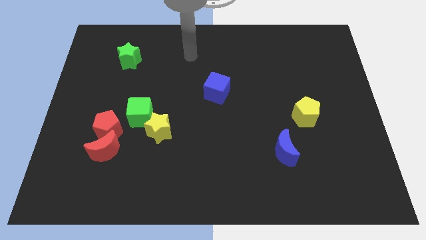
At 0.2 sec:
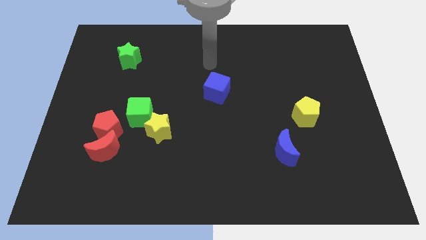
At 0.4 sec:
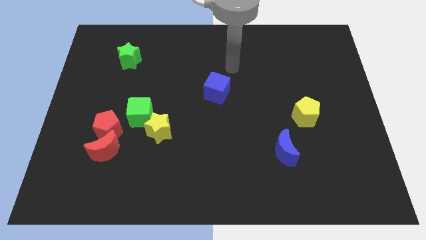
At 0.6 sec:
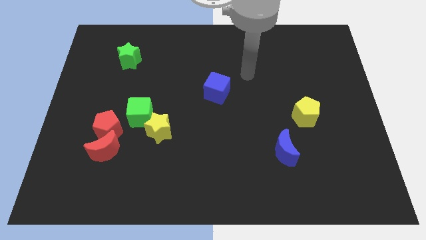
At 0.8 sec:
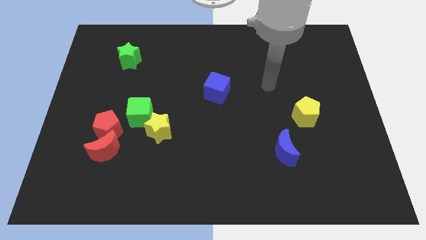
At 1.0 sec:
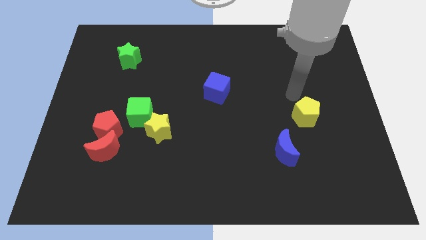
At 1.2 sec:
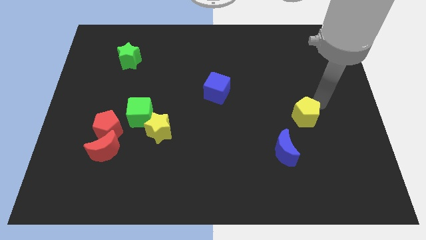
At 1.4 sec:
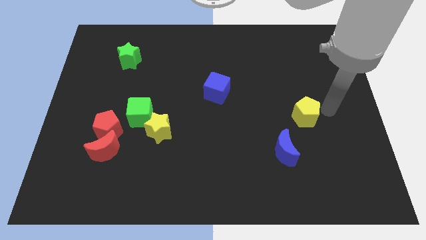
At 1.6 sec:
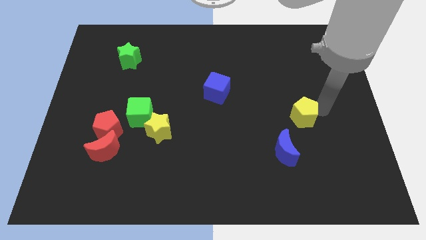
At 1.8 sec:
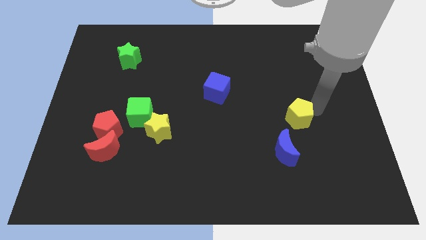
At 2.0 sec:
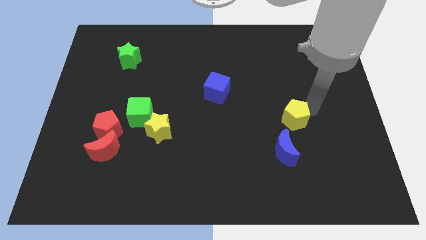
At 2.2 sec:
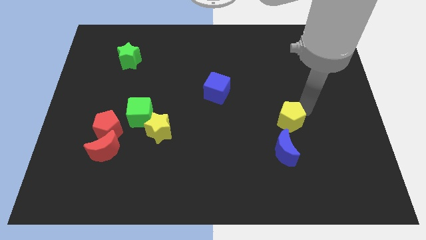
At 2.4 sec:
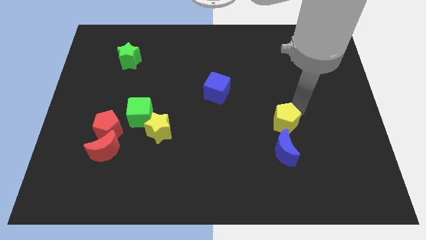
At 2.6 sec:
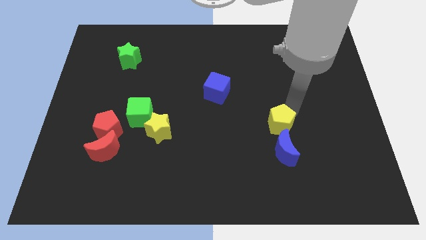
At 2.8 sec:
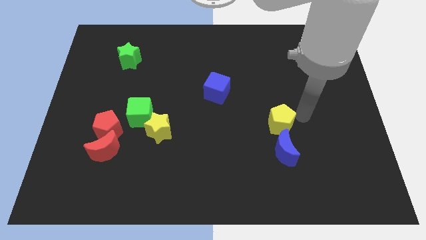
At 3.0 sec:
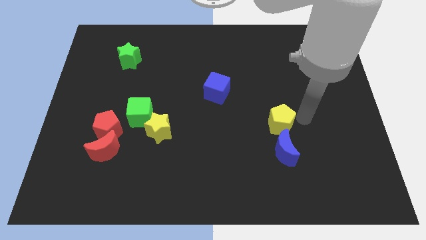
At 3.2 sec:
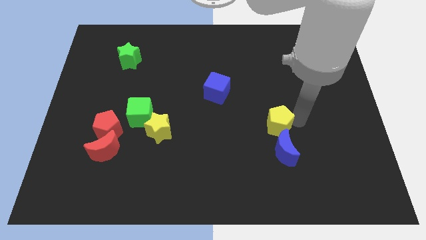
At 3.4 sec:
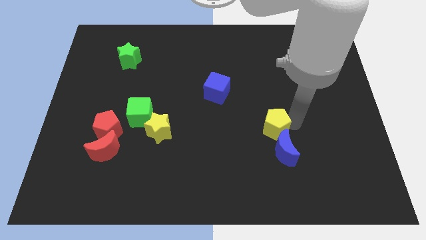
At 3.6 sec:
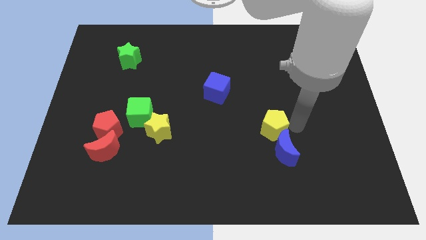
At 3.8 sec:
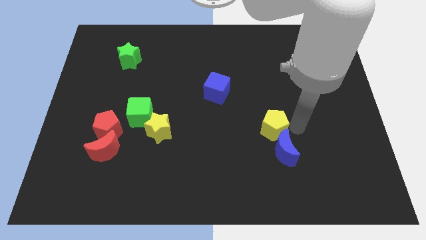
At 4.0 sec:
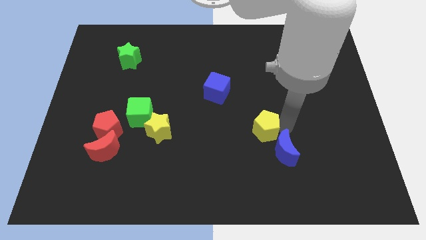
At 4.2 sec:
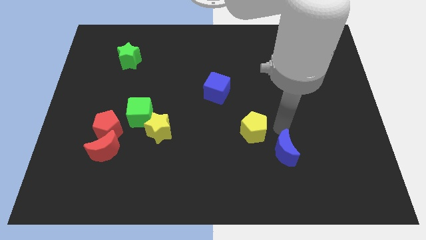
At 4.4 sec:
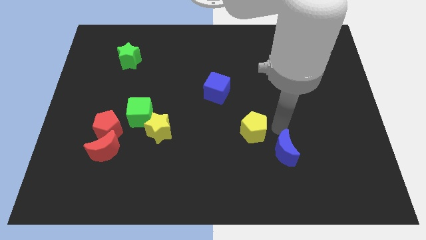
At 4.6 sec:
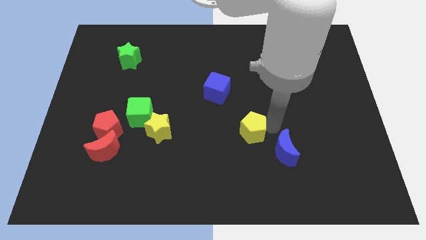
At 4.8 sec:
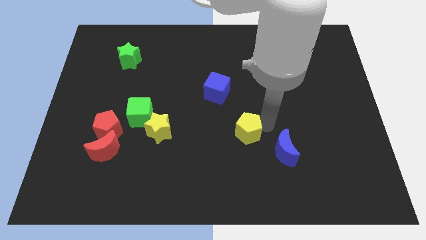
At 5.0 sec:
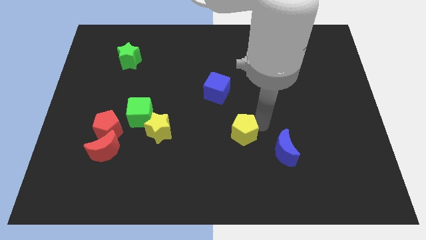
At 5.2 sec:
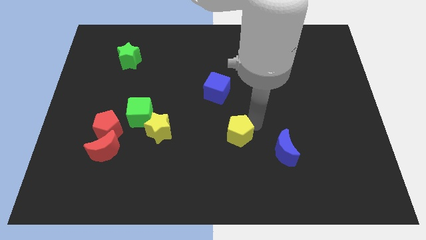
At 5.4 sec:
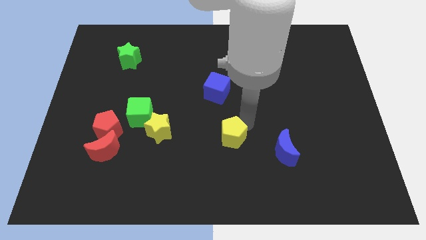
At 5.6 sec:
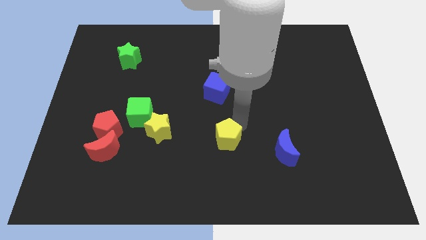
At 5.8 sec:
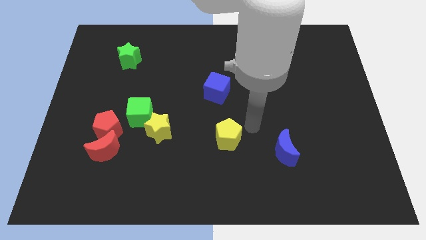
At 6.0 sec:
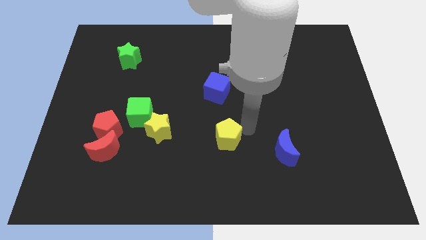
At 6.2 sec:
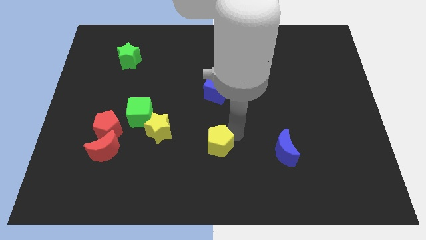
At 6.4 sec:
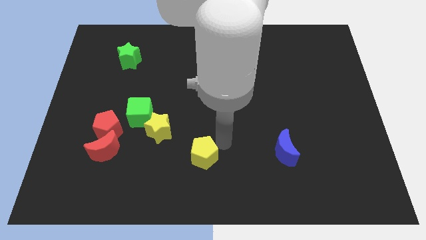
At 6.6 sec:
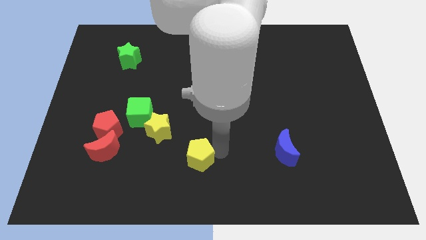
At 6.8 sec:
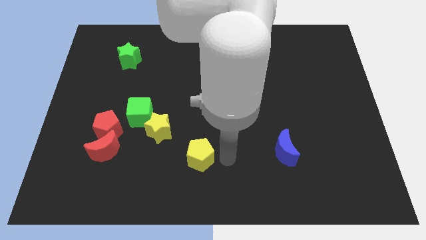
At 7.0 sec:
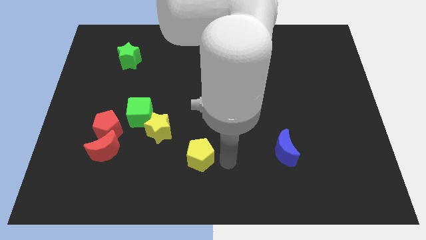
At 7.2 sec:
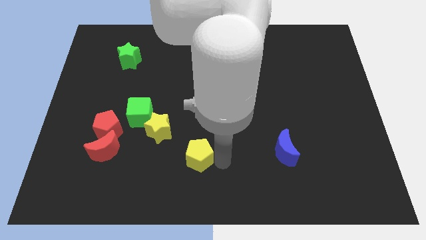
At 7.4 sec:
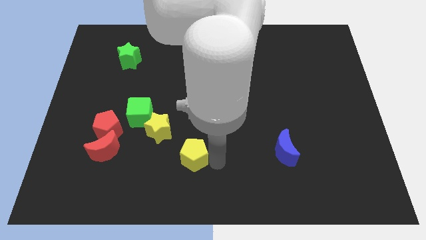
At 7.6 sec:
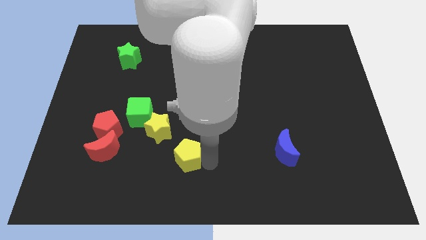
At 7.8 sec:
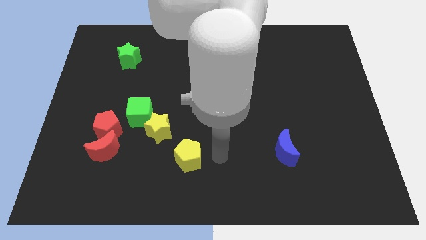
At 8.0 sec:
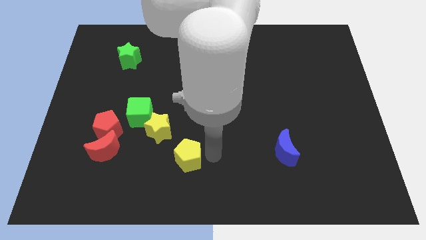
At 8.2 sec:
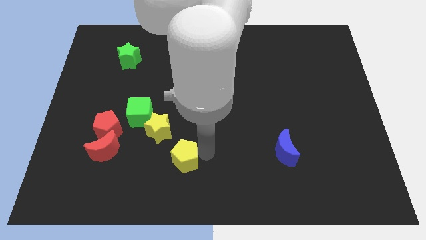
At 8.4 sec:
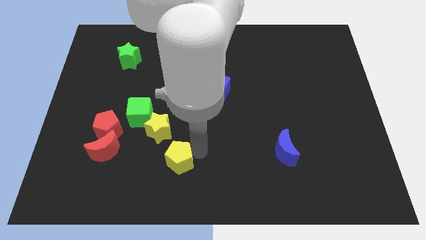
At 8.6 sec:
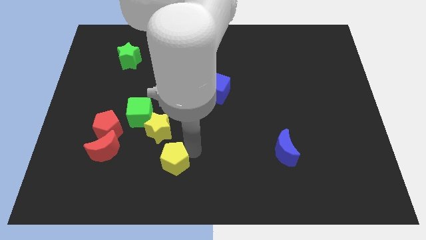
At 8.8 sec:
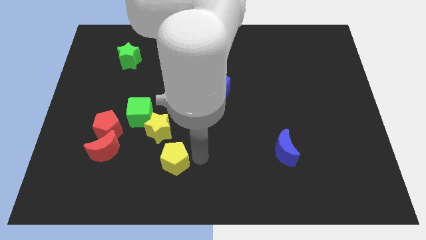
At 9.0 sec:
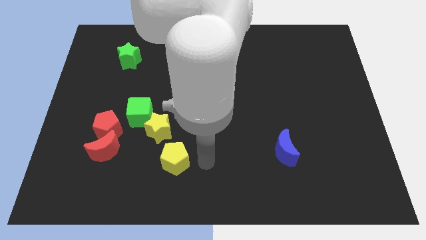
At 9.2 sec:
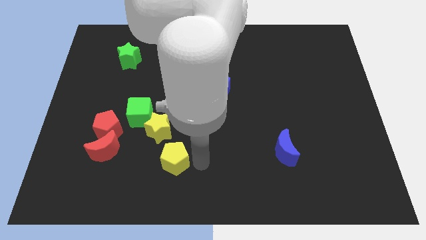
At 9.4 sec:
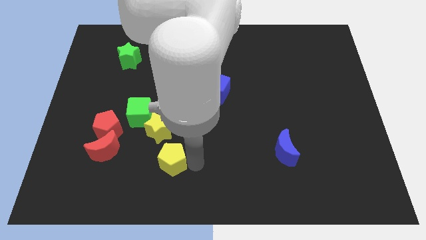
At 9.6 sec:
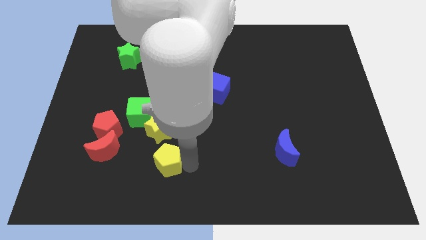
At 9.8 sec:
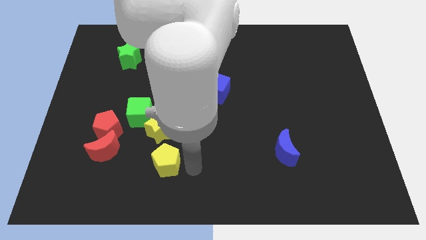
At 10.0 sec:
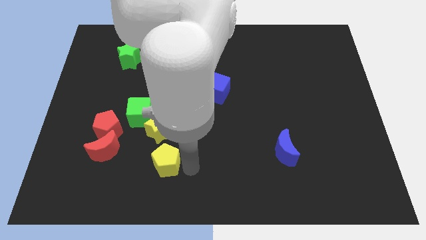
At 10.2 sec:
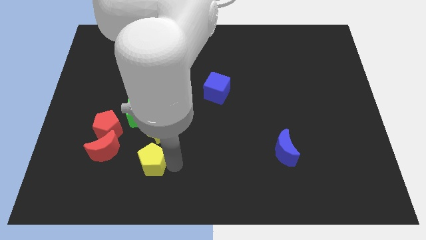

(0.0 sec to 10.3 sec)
move the yellow pentagon below the green cube

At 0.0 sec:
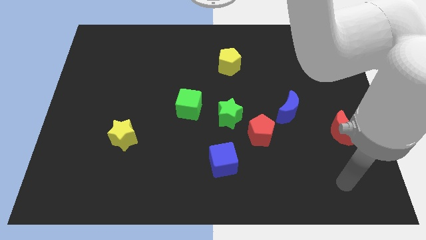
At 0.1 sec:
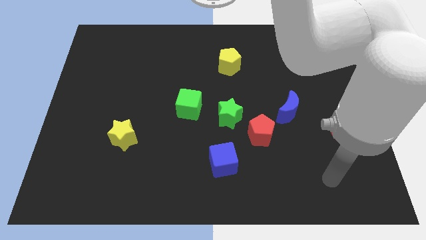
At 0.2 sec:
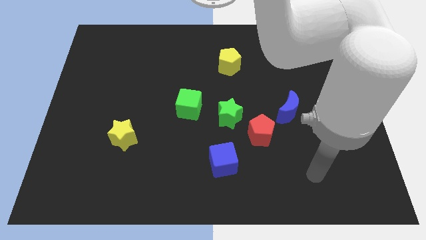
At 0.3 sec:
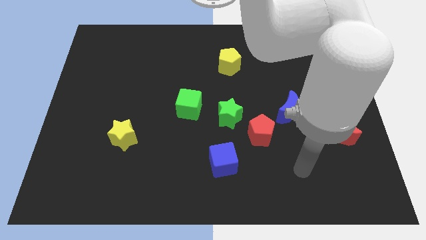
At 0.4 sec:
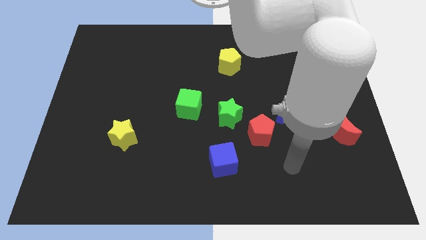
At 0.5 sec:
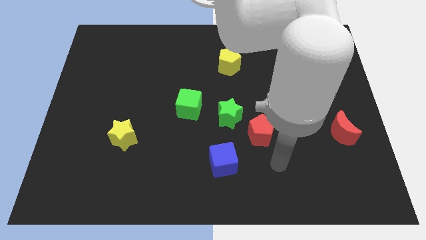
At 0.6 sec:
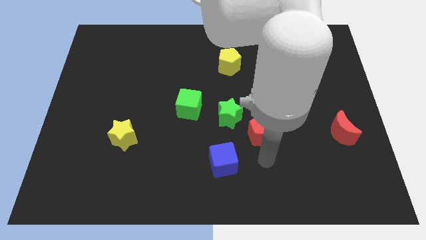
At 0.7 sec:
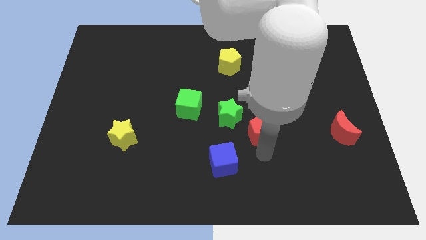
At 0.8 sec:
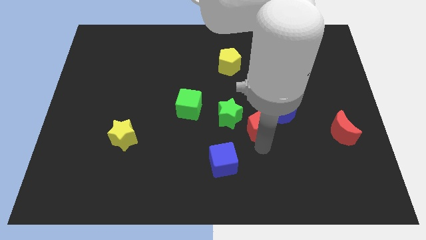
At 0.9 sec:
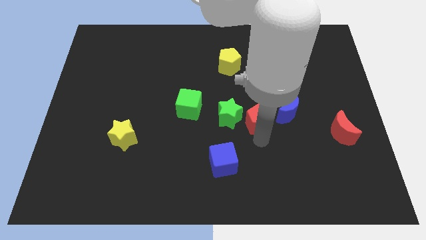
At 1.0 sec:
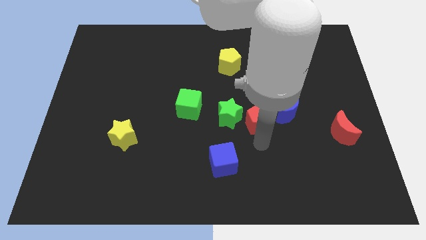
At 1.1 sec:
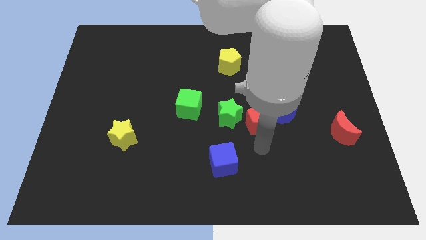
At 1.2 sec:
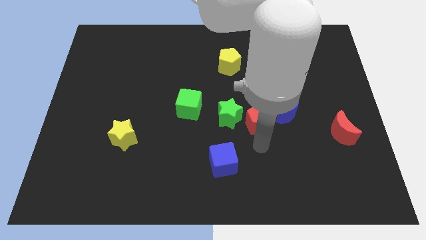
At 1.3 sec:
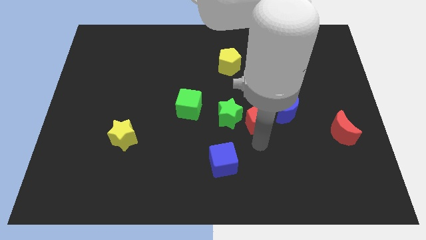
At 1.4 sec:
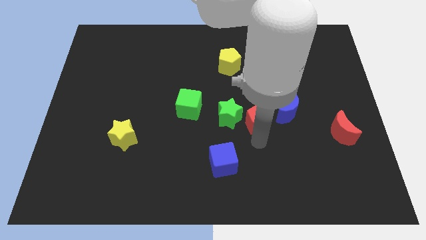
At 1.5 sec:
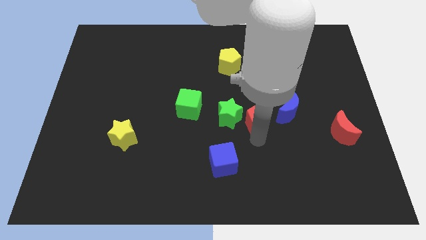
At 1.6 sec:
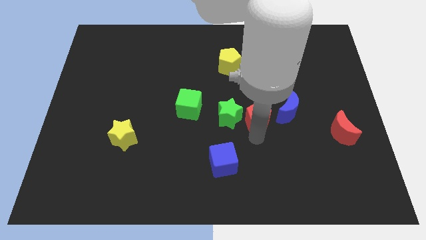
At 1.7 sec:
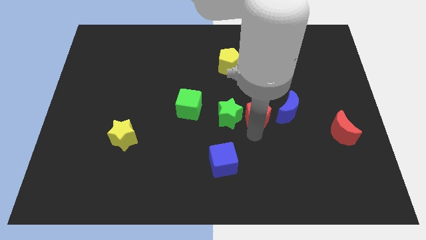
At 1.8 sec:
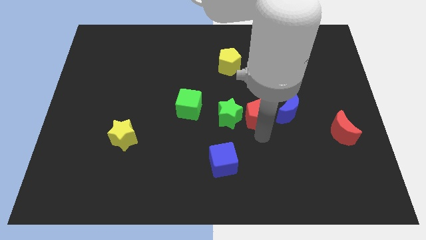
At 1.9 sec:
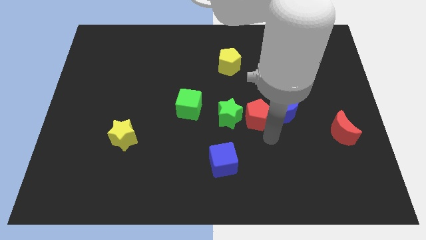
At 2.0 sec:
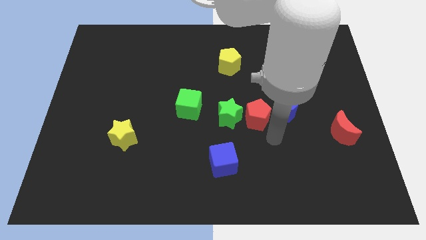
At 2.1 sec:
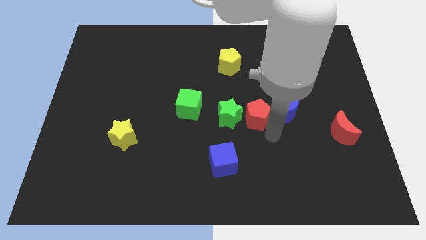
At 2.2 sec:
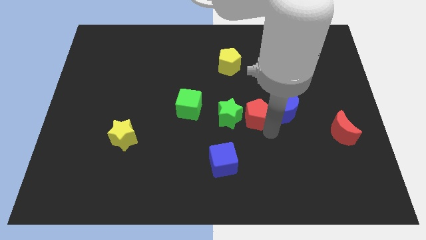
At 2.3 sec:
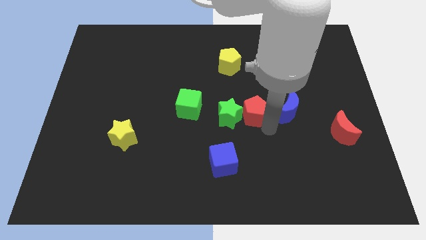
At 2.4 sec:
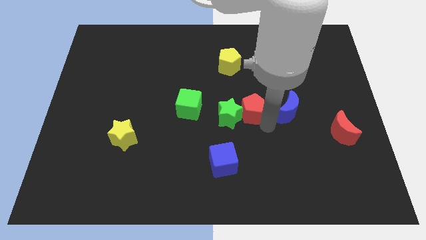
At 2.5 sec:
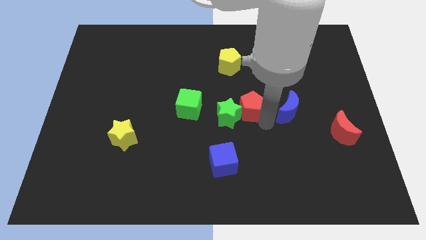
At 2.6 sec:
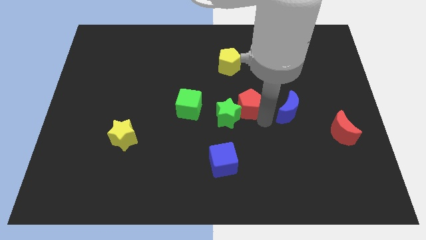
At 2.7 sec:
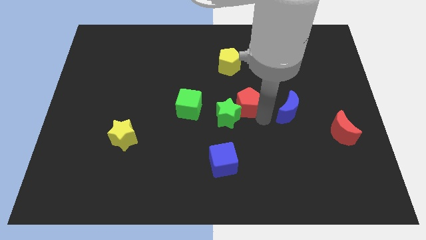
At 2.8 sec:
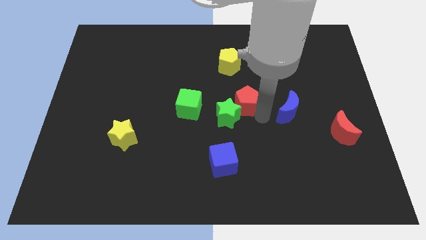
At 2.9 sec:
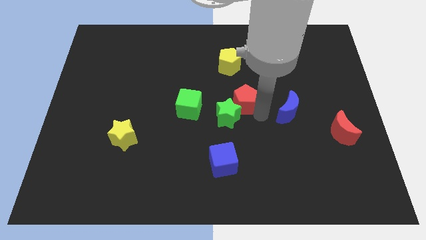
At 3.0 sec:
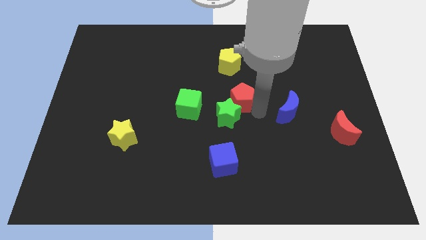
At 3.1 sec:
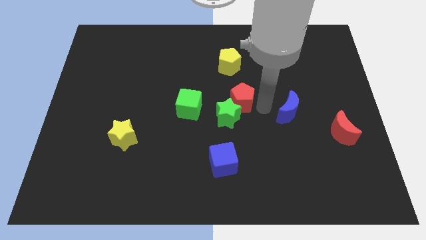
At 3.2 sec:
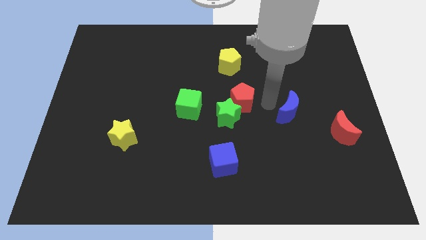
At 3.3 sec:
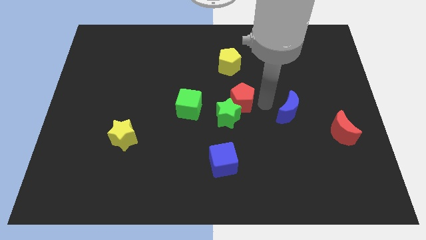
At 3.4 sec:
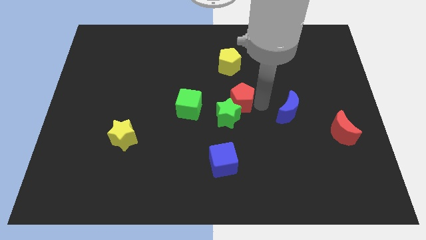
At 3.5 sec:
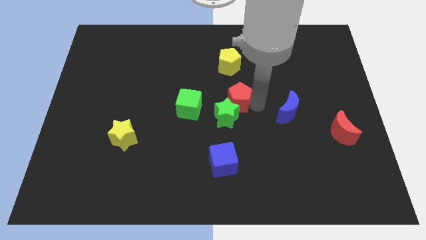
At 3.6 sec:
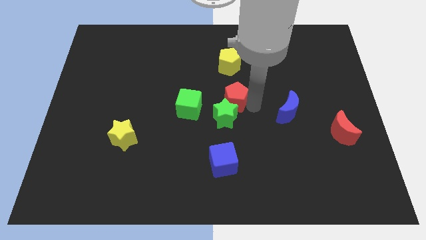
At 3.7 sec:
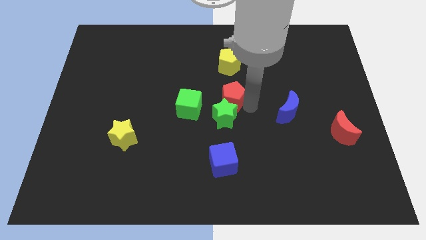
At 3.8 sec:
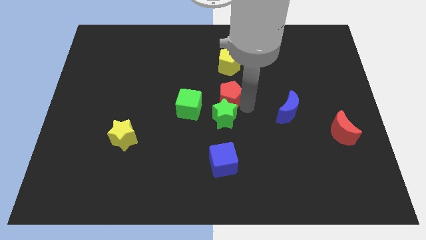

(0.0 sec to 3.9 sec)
push the red pentagon diagonally up and to the left of the green star
